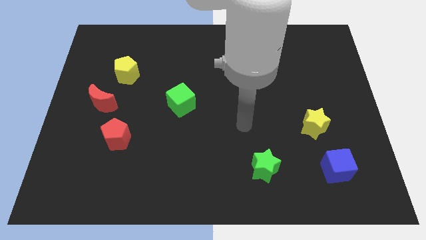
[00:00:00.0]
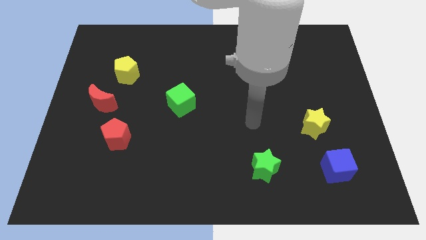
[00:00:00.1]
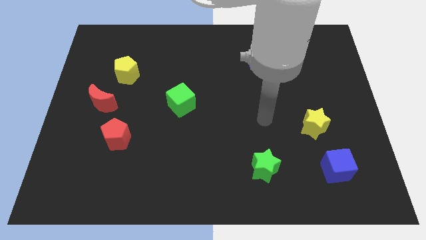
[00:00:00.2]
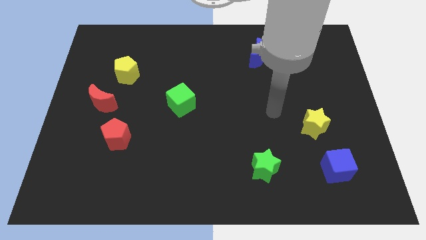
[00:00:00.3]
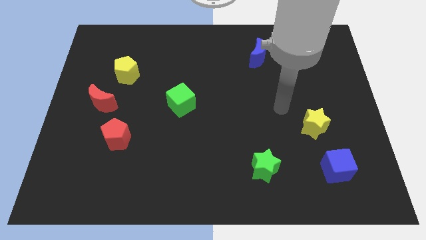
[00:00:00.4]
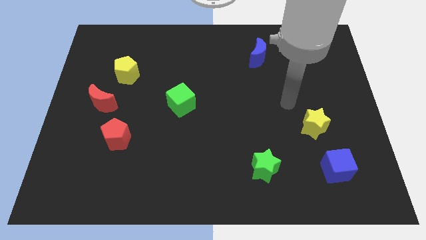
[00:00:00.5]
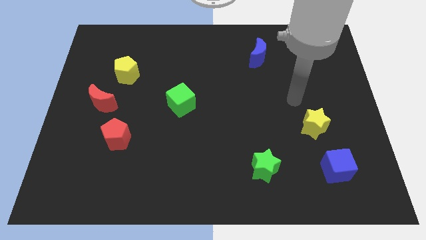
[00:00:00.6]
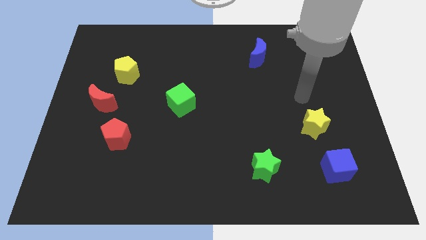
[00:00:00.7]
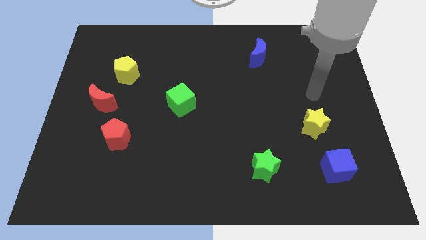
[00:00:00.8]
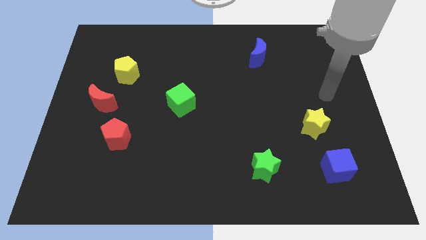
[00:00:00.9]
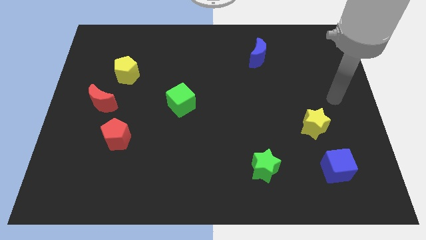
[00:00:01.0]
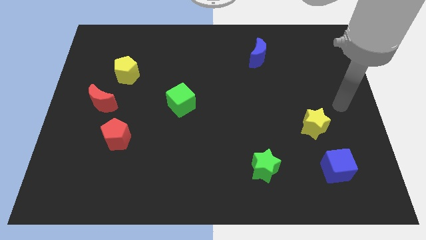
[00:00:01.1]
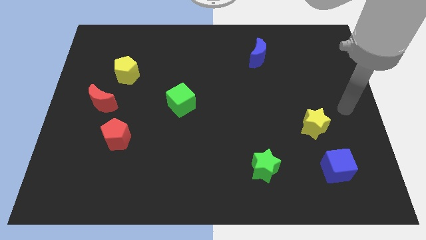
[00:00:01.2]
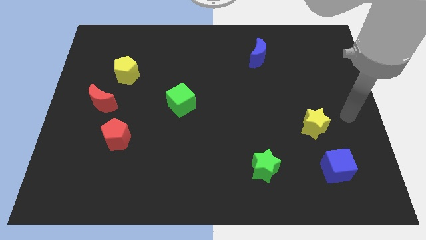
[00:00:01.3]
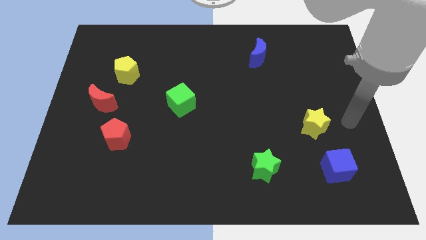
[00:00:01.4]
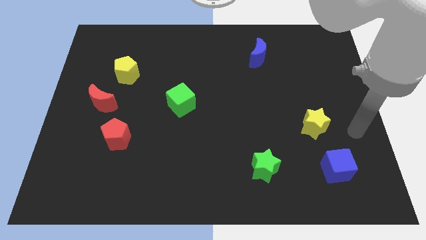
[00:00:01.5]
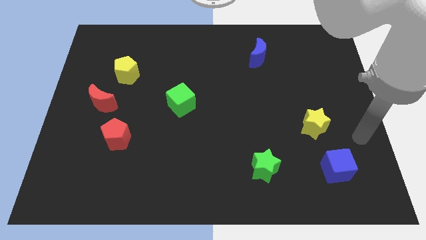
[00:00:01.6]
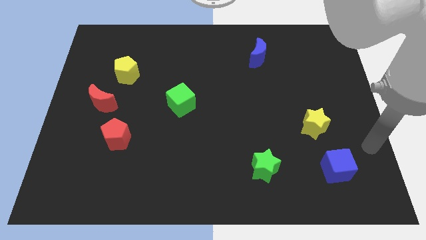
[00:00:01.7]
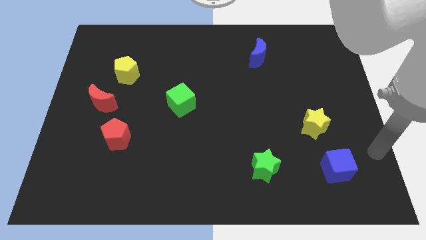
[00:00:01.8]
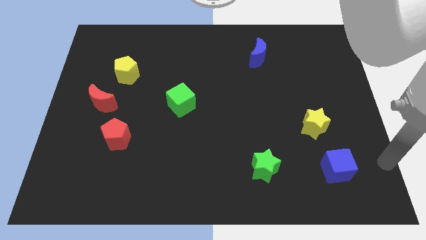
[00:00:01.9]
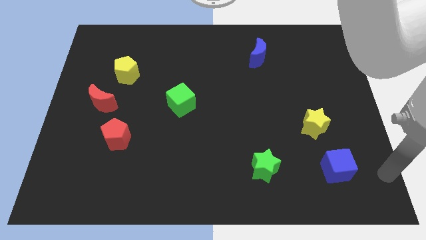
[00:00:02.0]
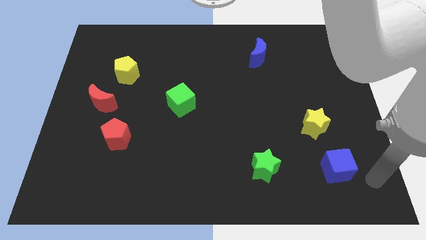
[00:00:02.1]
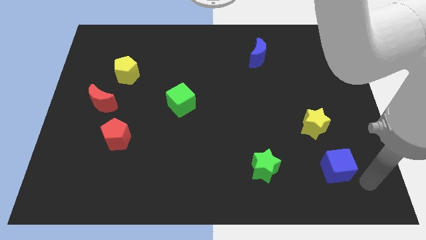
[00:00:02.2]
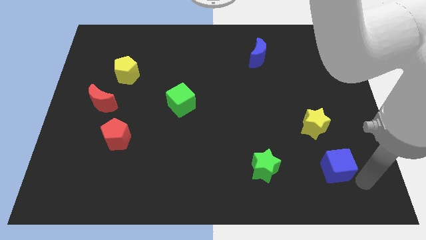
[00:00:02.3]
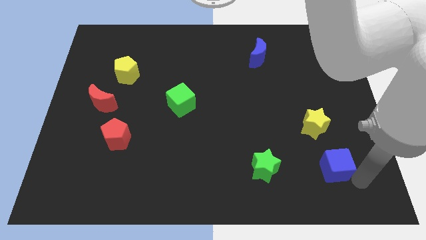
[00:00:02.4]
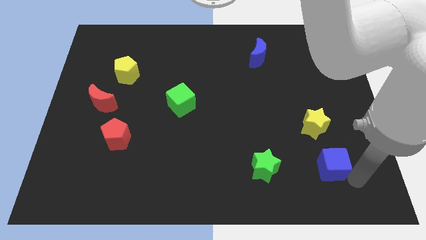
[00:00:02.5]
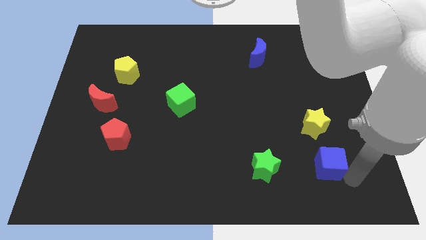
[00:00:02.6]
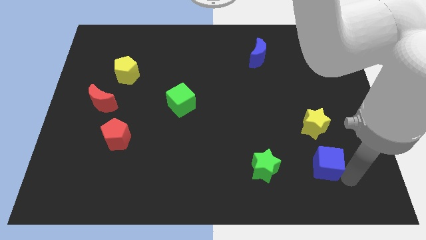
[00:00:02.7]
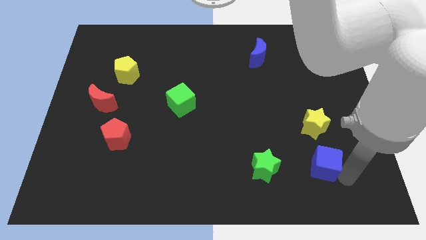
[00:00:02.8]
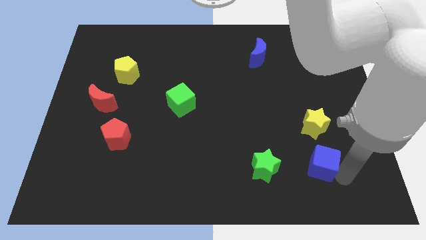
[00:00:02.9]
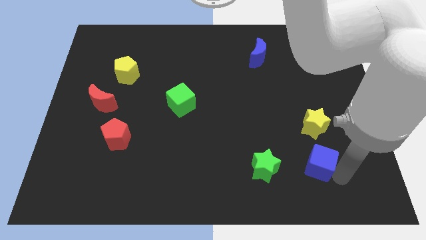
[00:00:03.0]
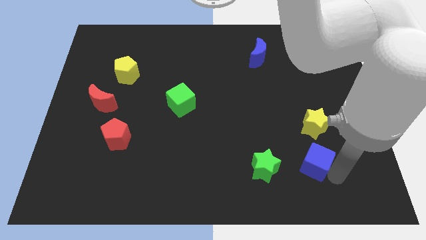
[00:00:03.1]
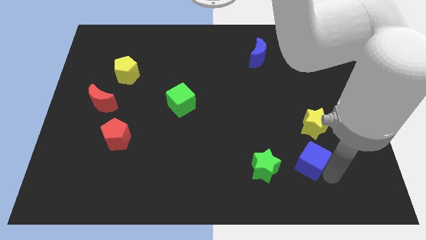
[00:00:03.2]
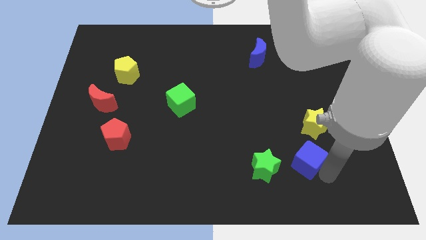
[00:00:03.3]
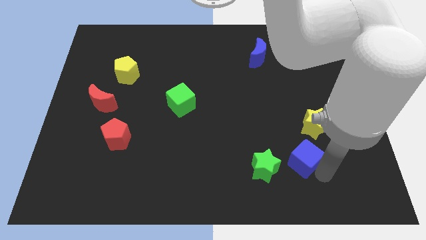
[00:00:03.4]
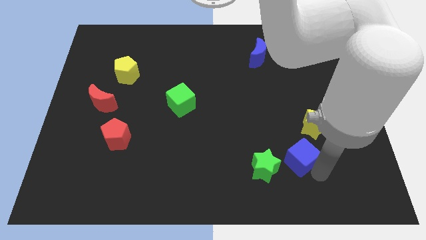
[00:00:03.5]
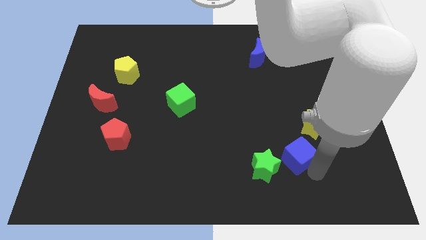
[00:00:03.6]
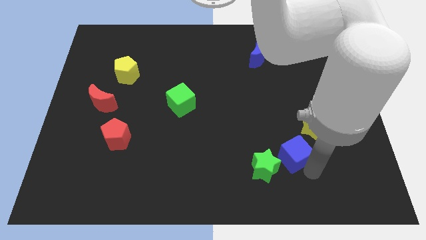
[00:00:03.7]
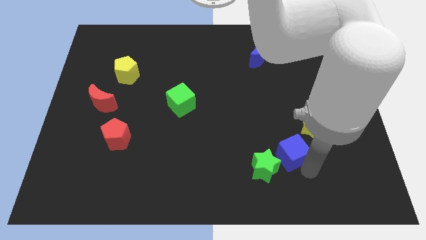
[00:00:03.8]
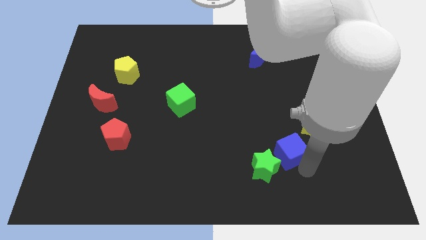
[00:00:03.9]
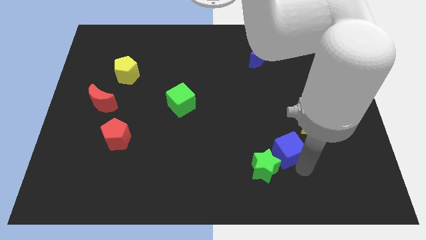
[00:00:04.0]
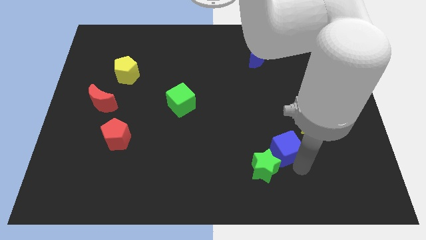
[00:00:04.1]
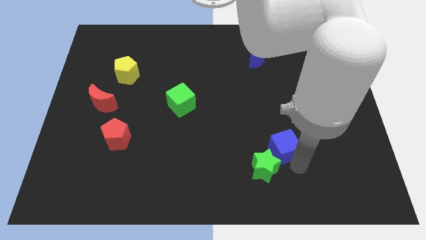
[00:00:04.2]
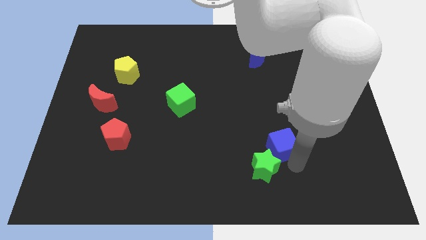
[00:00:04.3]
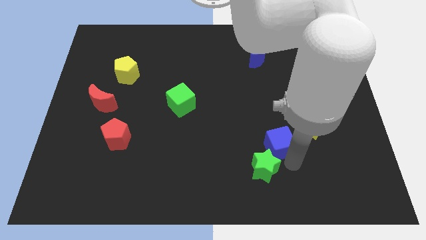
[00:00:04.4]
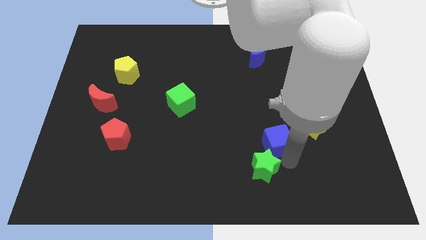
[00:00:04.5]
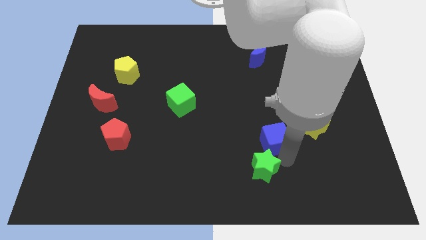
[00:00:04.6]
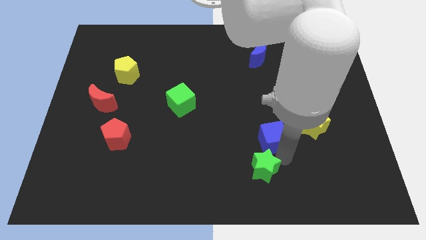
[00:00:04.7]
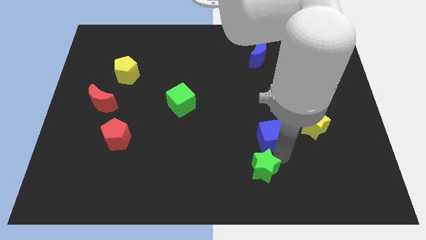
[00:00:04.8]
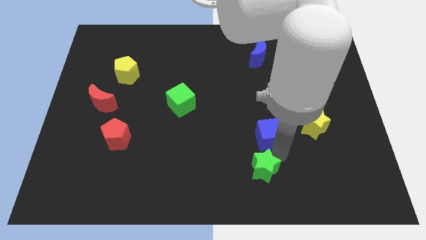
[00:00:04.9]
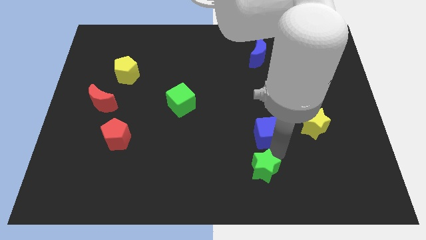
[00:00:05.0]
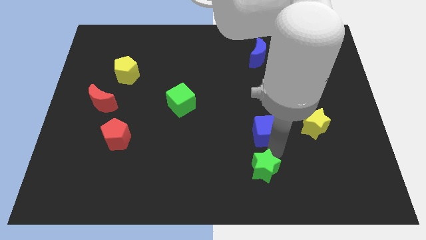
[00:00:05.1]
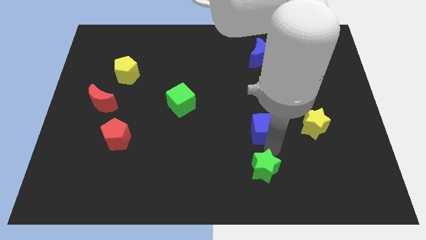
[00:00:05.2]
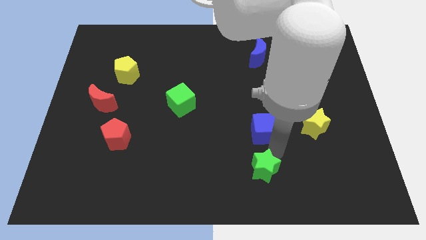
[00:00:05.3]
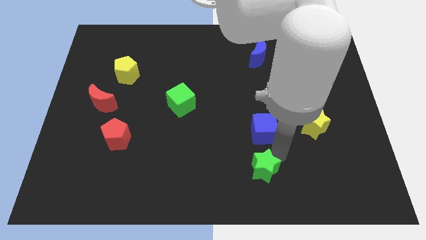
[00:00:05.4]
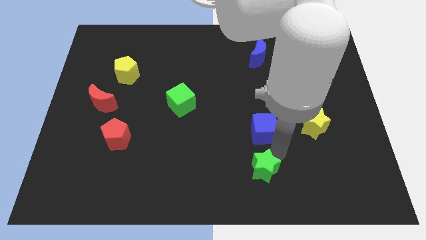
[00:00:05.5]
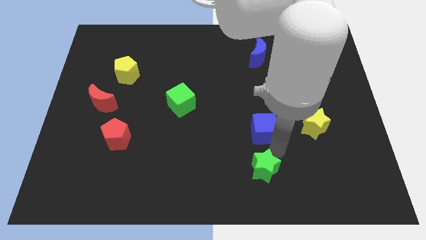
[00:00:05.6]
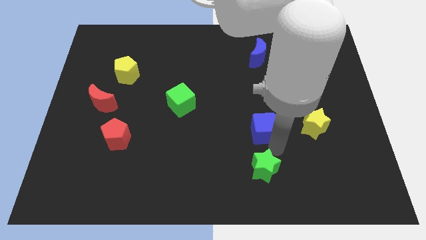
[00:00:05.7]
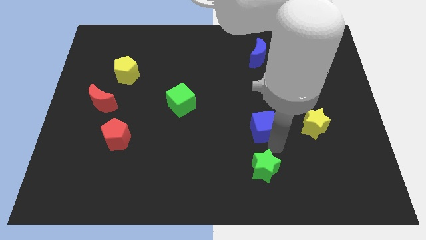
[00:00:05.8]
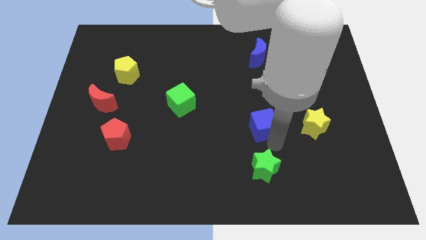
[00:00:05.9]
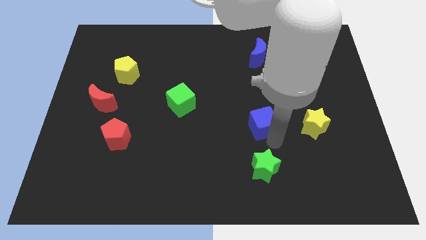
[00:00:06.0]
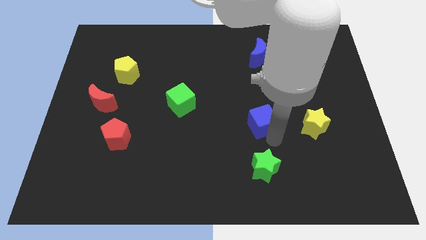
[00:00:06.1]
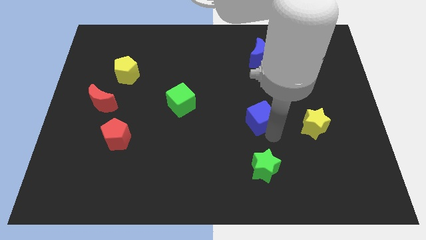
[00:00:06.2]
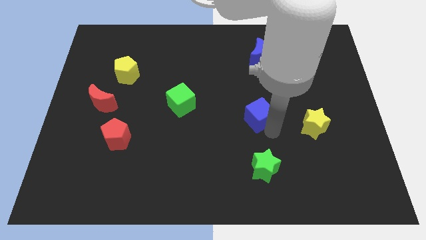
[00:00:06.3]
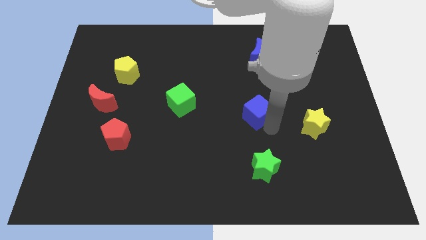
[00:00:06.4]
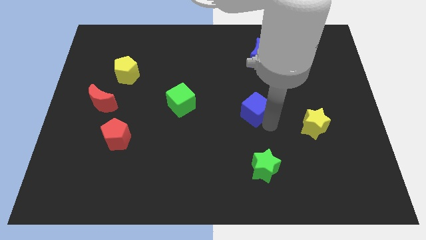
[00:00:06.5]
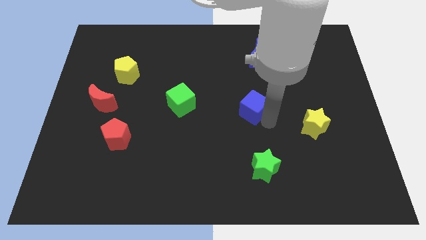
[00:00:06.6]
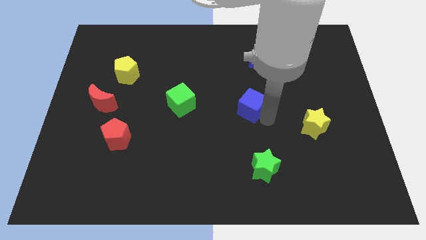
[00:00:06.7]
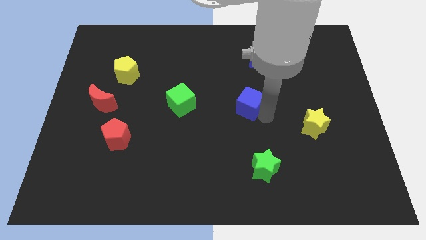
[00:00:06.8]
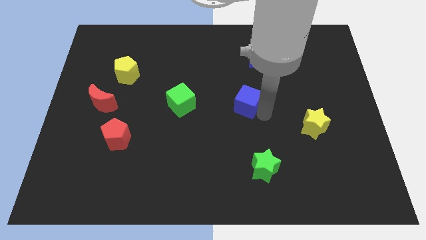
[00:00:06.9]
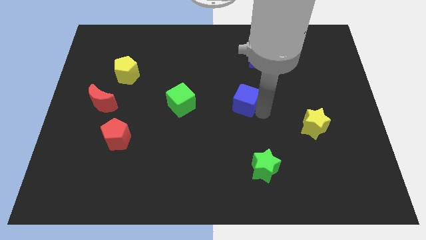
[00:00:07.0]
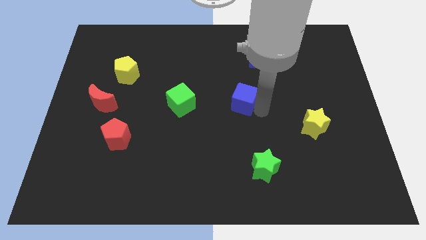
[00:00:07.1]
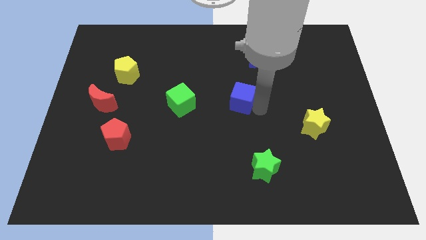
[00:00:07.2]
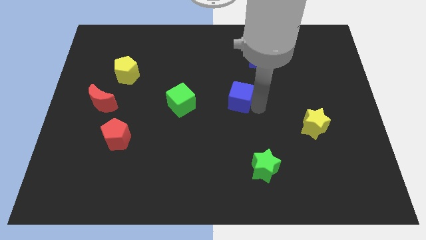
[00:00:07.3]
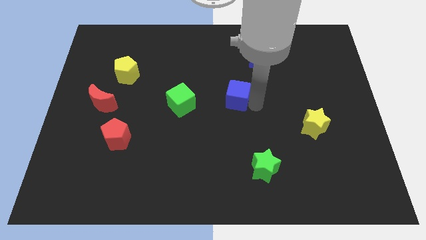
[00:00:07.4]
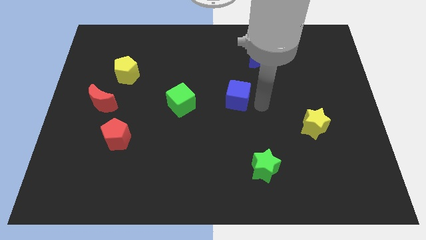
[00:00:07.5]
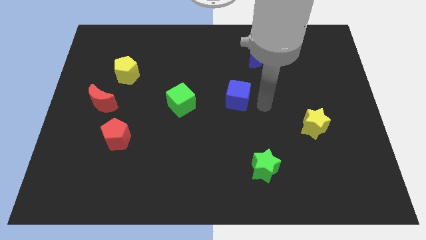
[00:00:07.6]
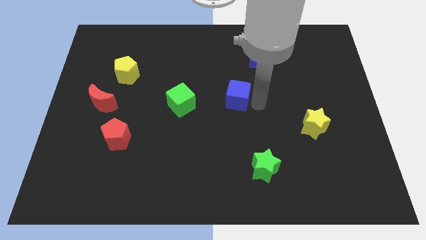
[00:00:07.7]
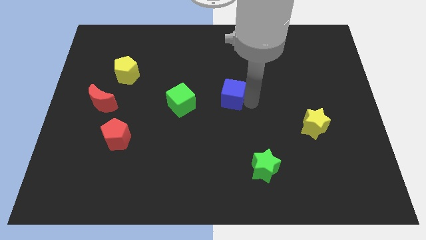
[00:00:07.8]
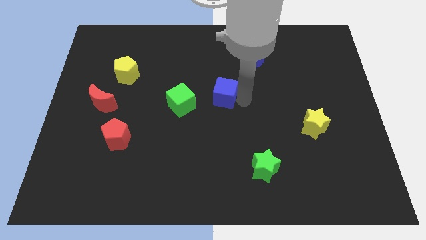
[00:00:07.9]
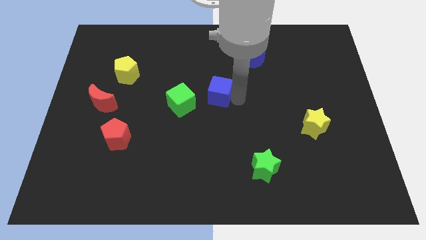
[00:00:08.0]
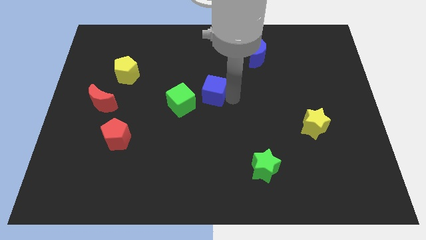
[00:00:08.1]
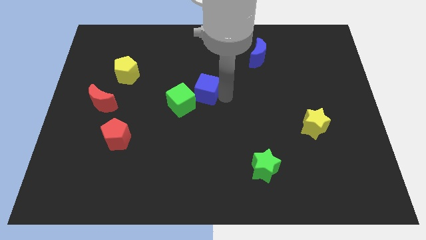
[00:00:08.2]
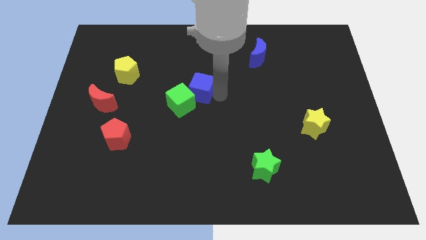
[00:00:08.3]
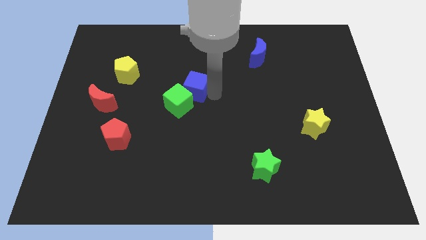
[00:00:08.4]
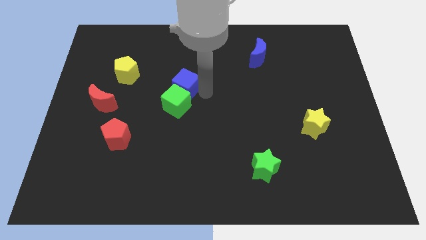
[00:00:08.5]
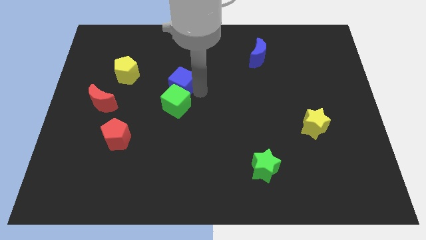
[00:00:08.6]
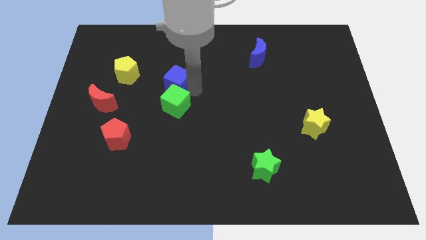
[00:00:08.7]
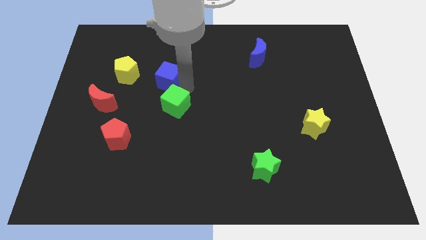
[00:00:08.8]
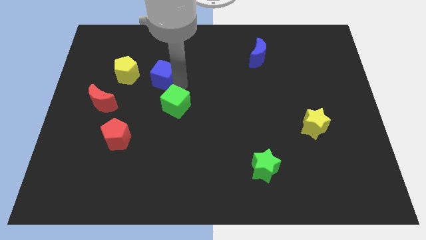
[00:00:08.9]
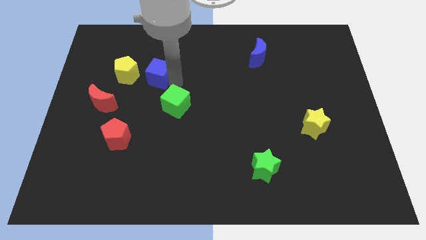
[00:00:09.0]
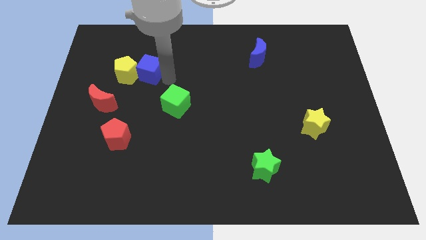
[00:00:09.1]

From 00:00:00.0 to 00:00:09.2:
slide the blue cube towards the yellow pentagon
